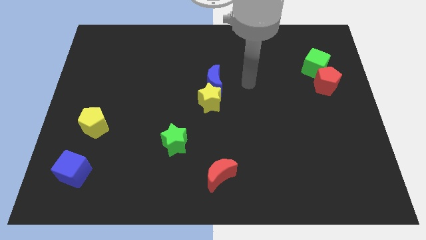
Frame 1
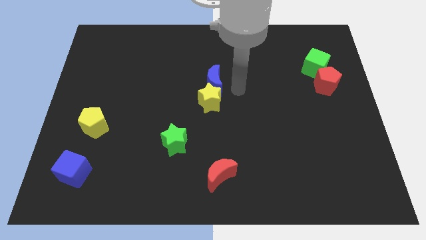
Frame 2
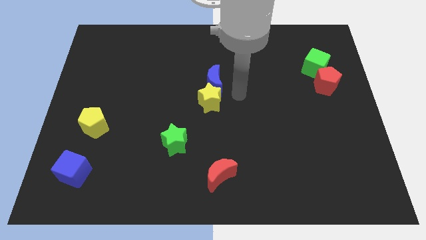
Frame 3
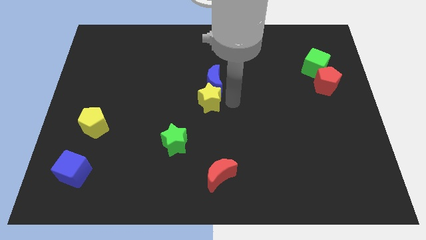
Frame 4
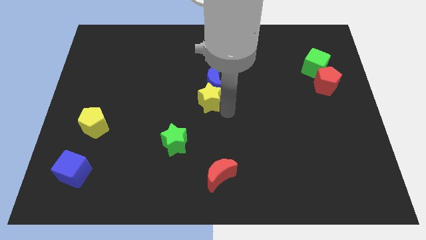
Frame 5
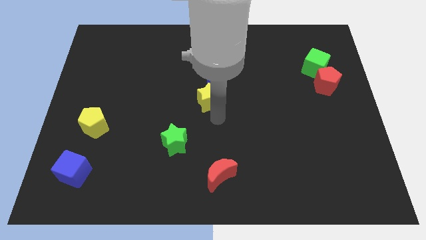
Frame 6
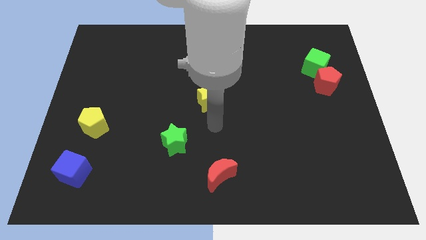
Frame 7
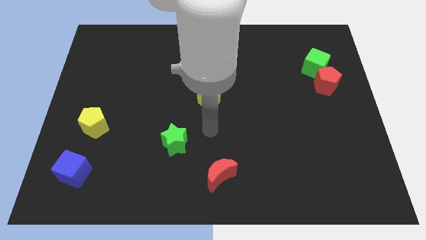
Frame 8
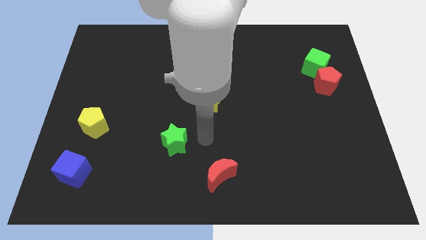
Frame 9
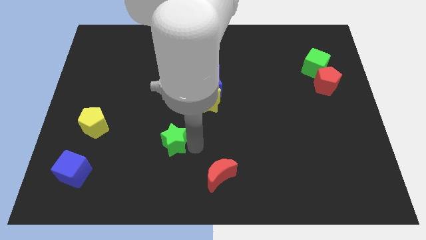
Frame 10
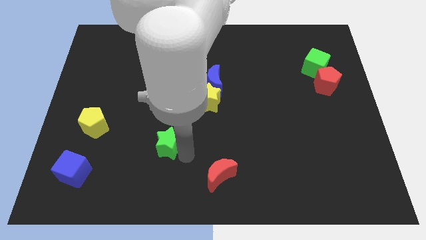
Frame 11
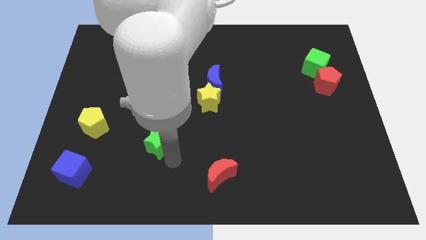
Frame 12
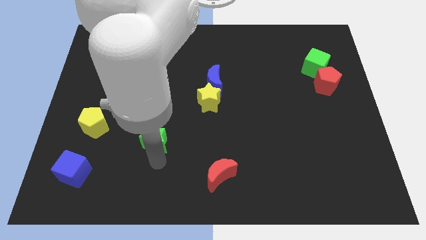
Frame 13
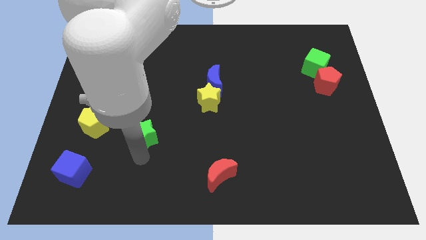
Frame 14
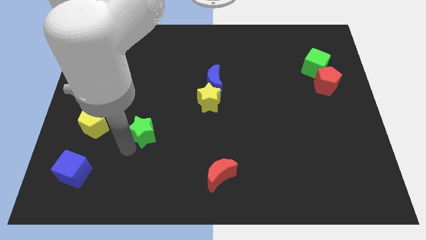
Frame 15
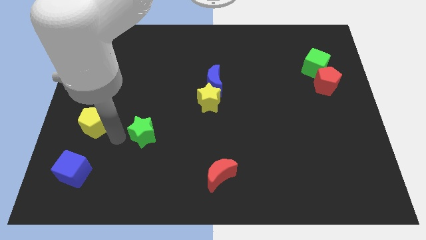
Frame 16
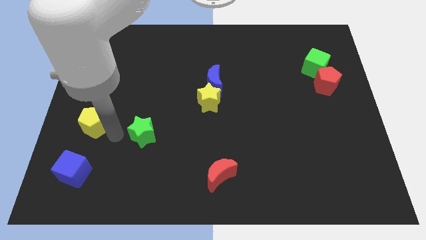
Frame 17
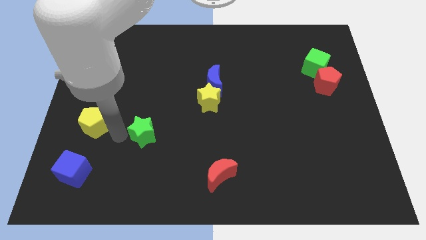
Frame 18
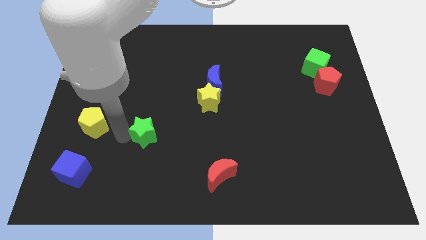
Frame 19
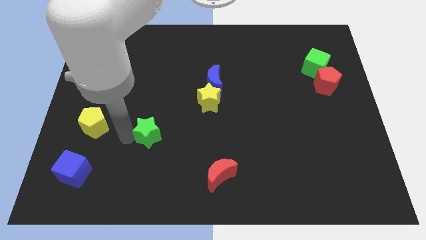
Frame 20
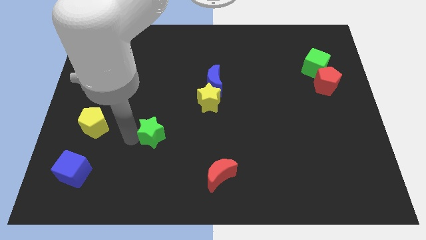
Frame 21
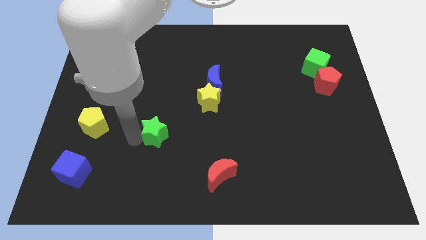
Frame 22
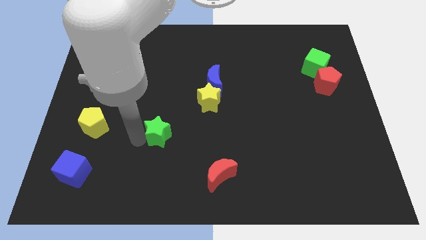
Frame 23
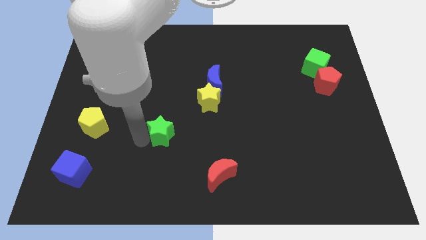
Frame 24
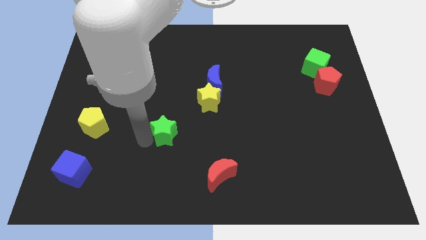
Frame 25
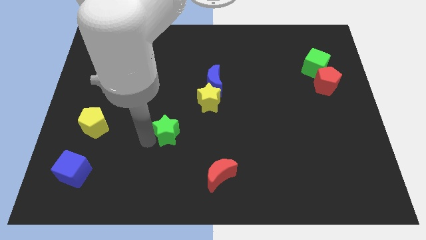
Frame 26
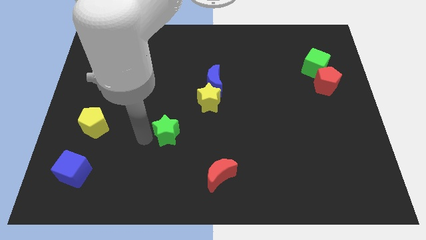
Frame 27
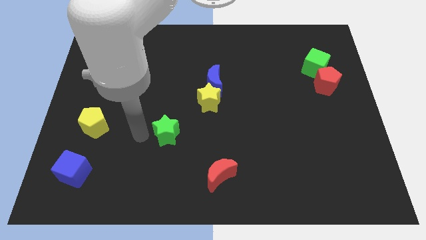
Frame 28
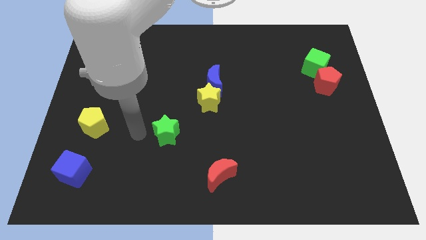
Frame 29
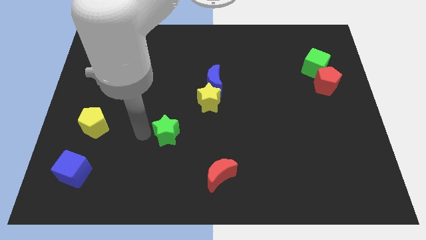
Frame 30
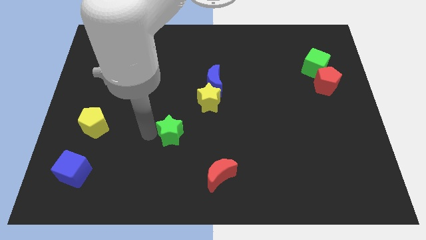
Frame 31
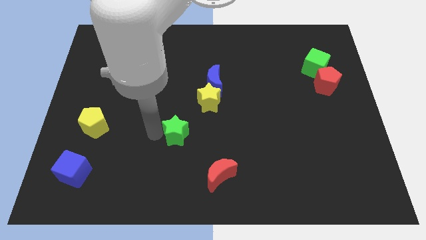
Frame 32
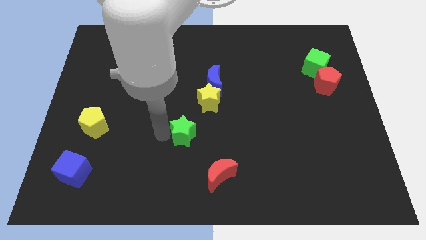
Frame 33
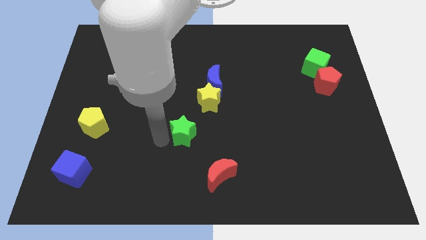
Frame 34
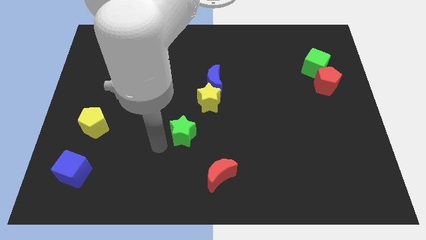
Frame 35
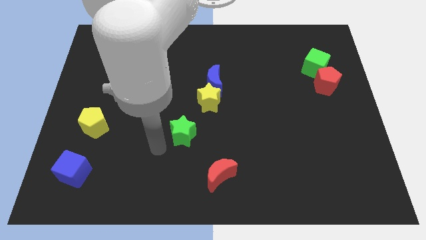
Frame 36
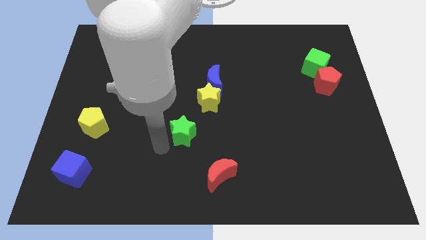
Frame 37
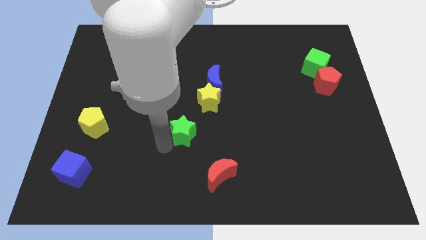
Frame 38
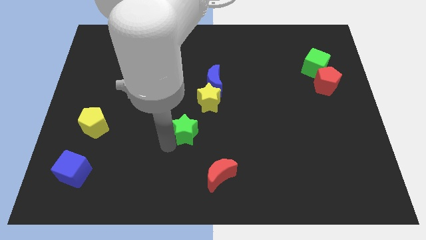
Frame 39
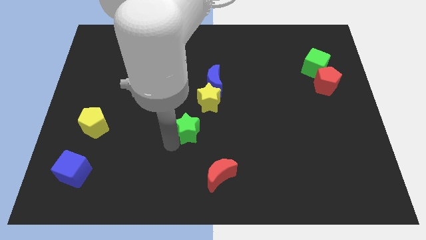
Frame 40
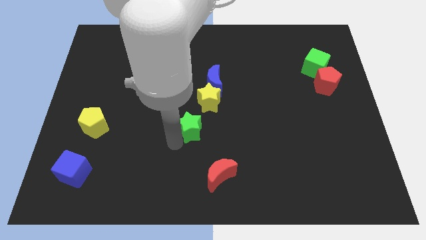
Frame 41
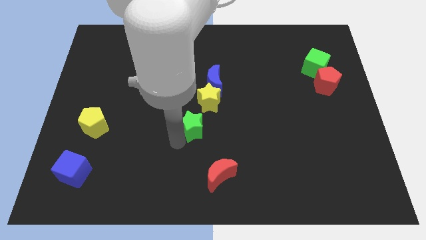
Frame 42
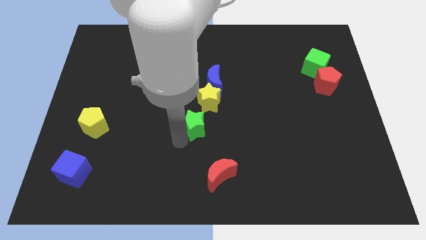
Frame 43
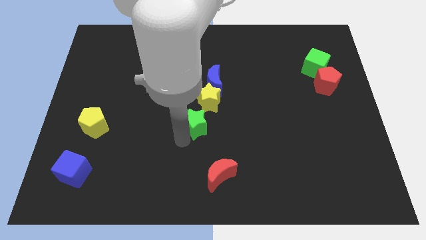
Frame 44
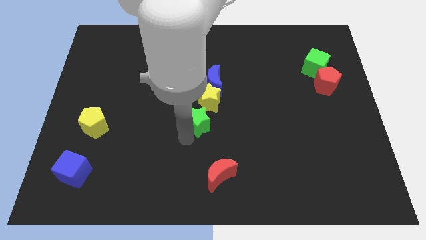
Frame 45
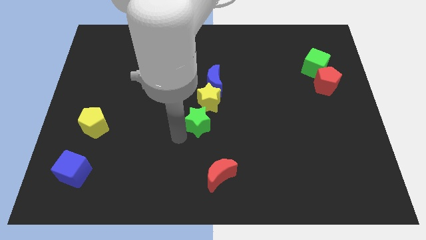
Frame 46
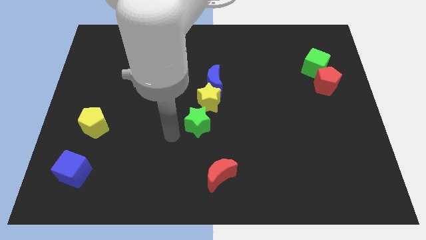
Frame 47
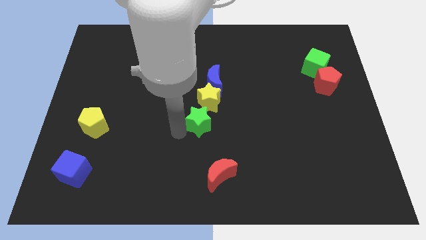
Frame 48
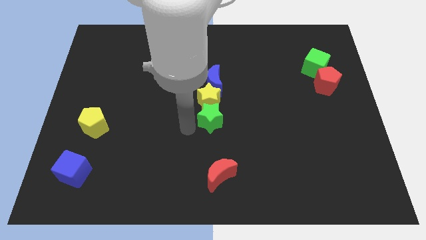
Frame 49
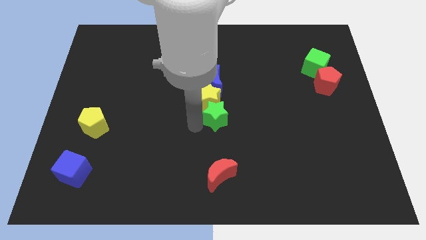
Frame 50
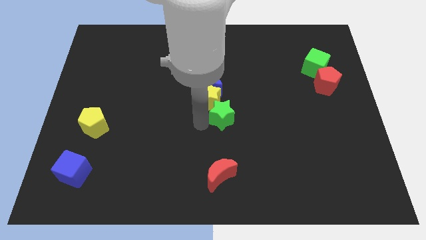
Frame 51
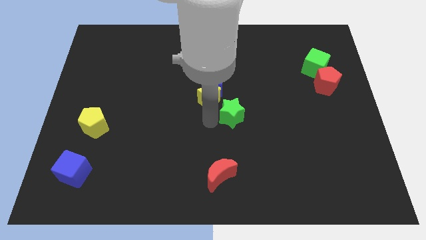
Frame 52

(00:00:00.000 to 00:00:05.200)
push the green star to the right side of the yellow star

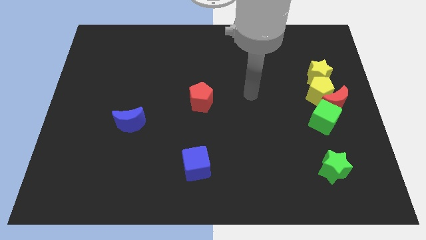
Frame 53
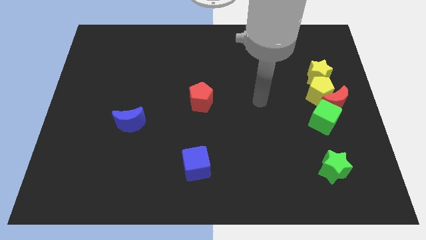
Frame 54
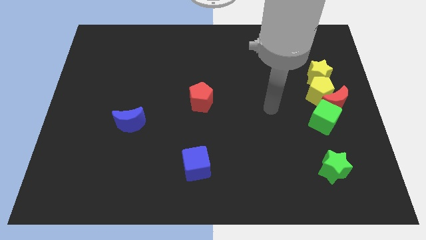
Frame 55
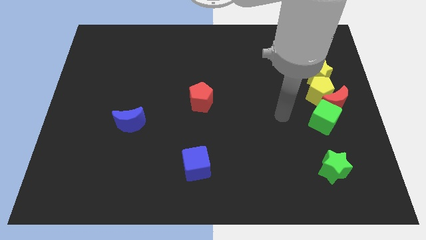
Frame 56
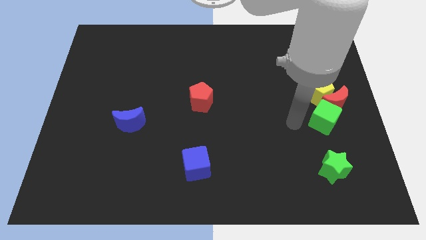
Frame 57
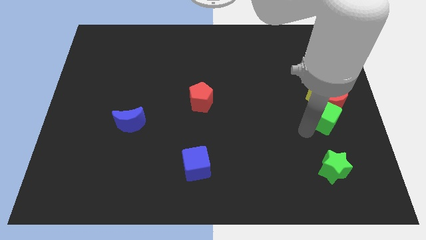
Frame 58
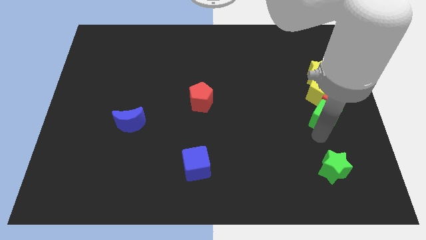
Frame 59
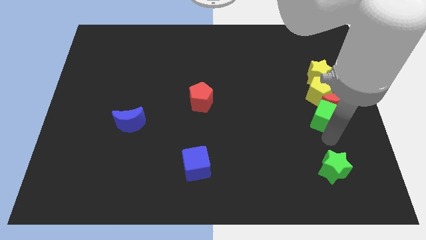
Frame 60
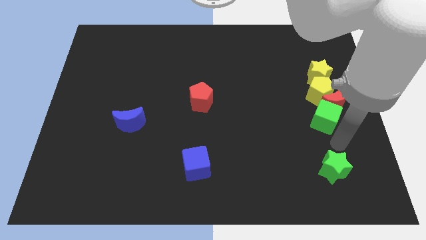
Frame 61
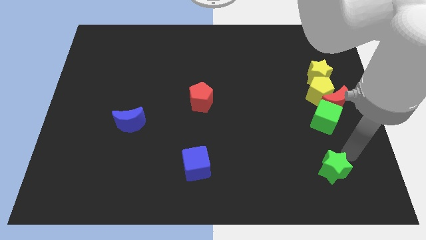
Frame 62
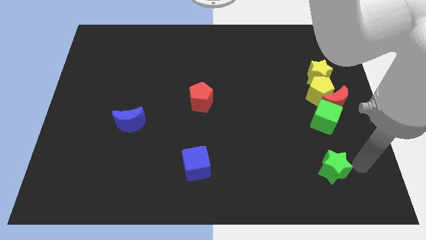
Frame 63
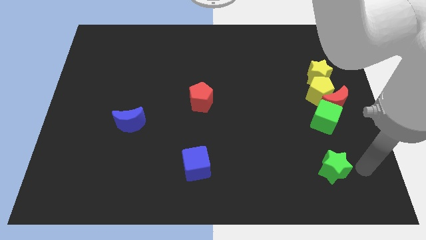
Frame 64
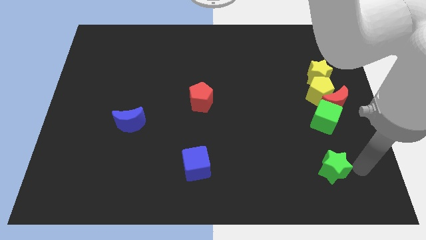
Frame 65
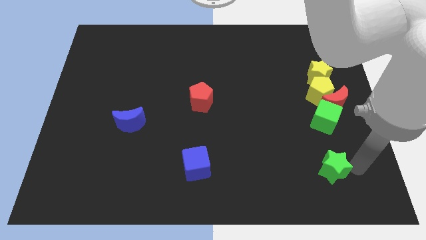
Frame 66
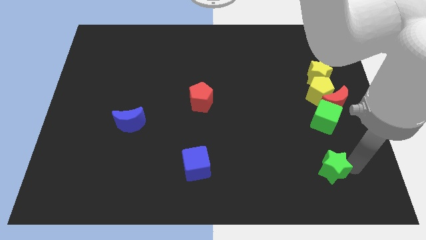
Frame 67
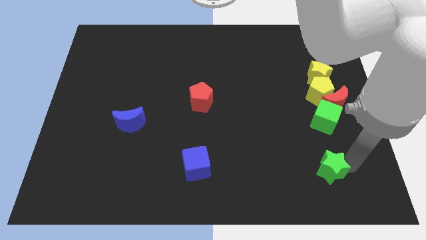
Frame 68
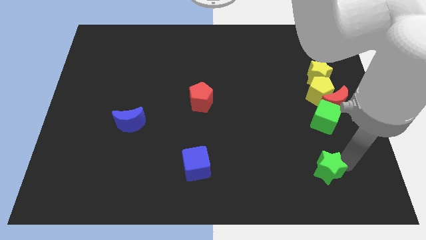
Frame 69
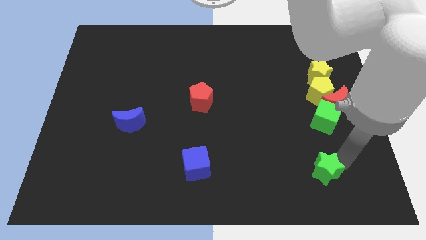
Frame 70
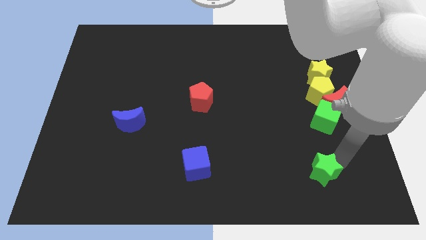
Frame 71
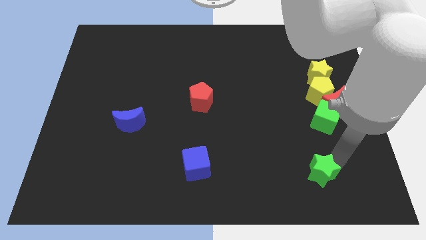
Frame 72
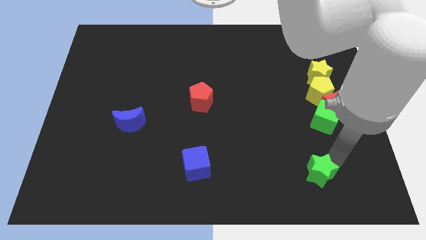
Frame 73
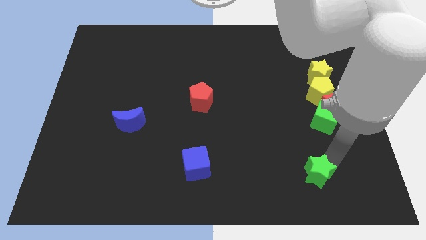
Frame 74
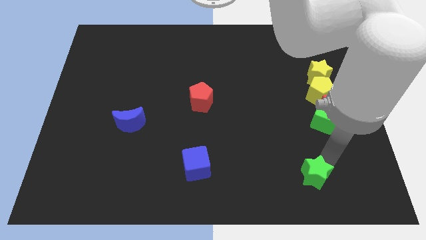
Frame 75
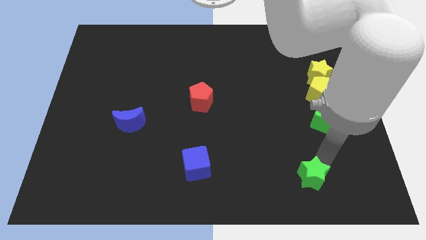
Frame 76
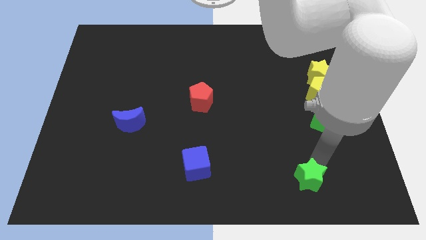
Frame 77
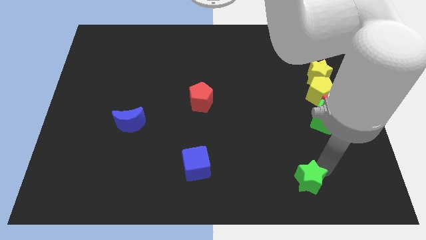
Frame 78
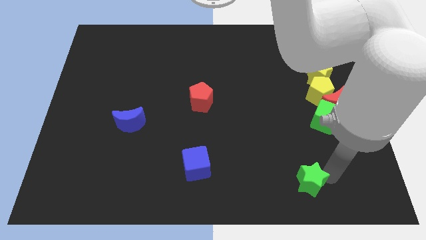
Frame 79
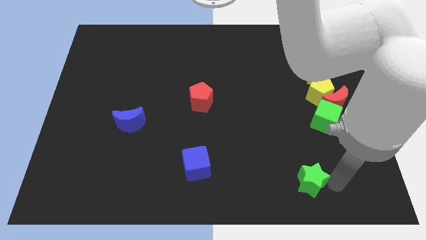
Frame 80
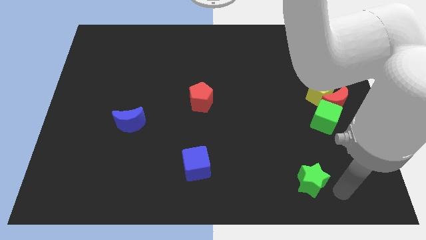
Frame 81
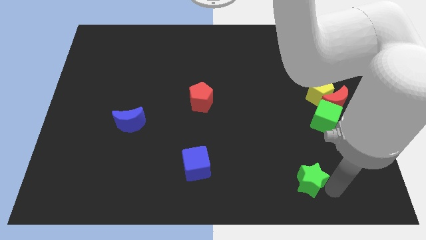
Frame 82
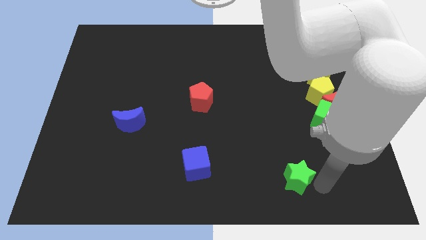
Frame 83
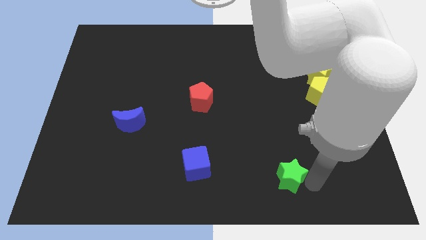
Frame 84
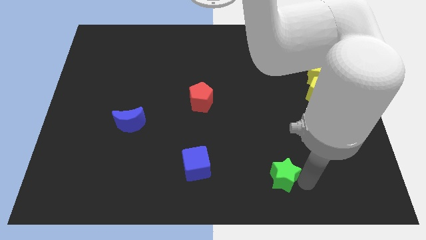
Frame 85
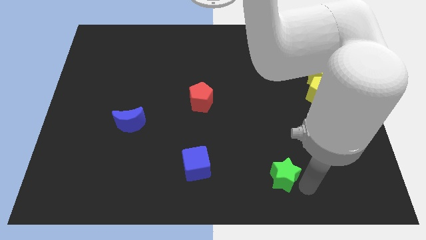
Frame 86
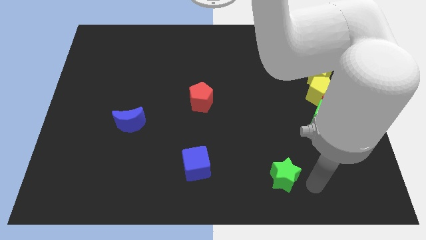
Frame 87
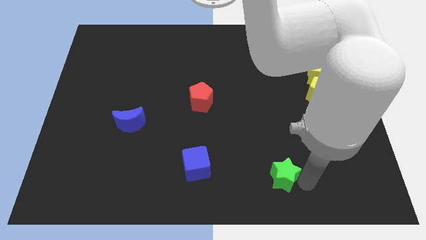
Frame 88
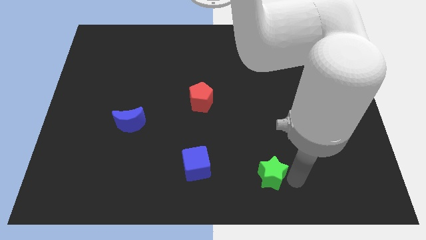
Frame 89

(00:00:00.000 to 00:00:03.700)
slide the green star just right of the blue cube
